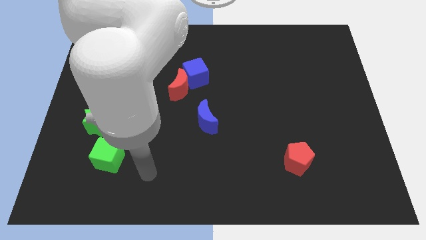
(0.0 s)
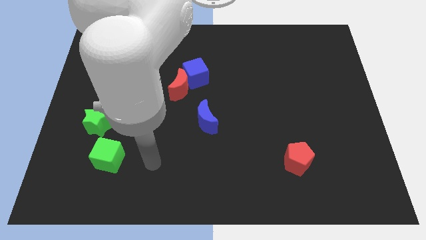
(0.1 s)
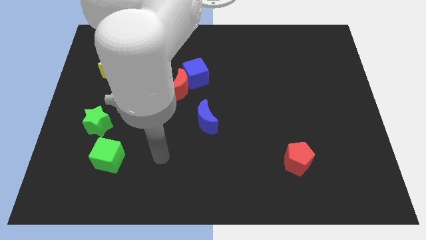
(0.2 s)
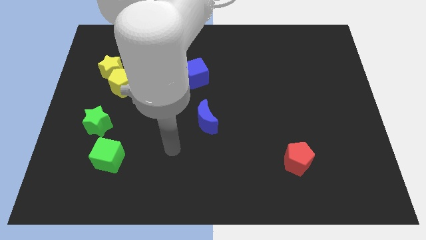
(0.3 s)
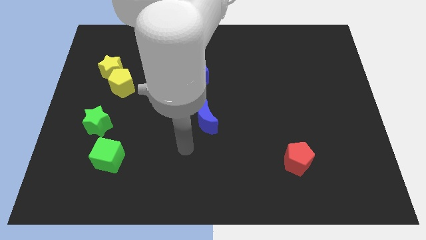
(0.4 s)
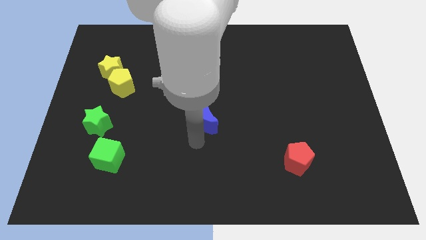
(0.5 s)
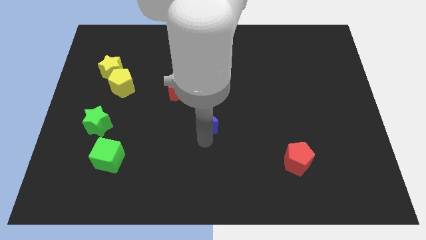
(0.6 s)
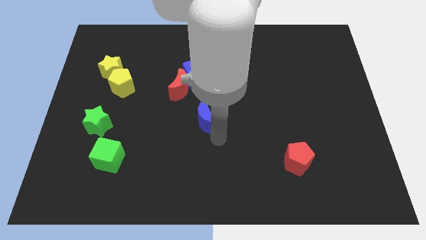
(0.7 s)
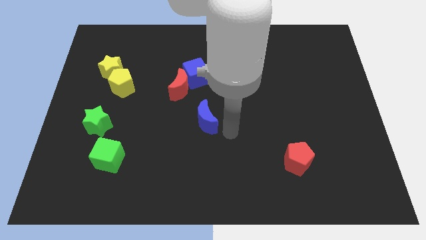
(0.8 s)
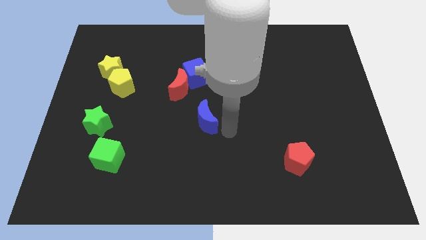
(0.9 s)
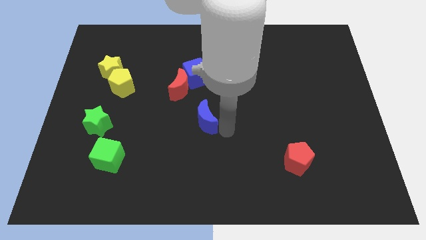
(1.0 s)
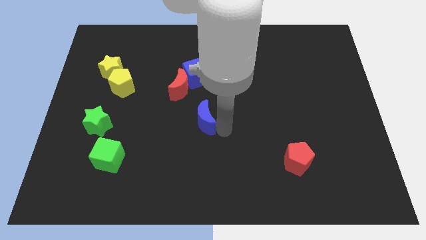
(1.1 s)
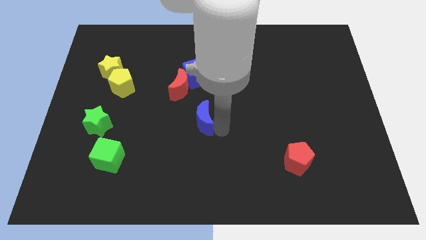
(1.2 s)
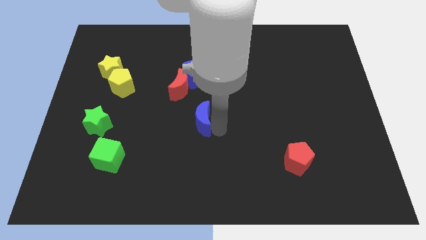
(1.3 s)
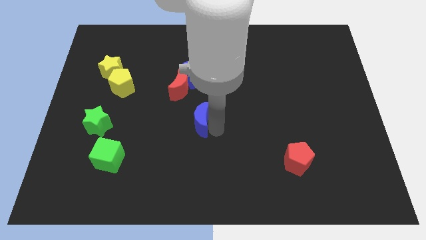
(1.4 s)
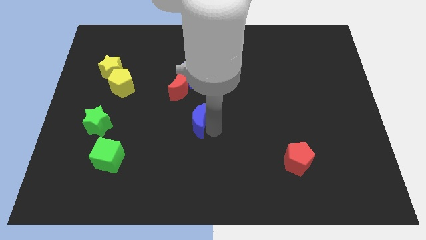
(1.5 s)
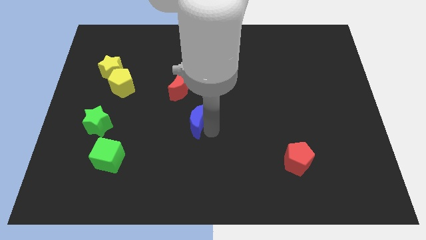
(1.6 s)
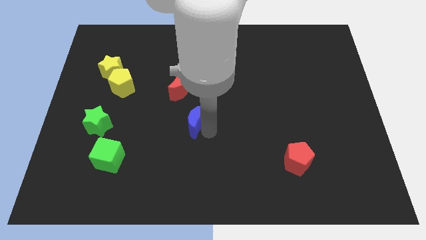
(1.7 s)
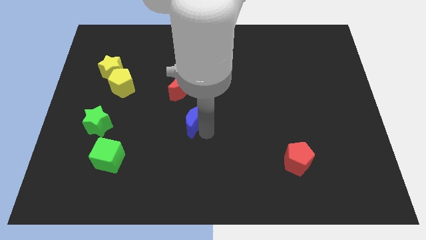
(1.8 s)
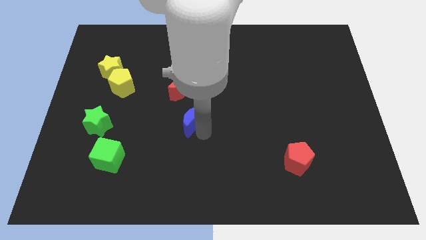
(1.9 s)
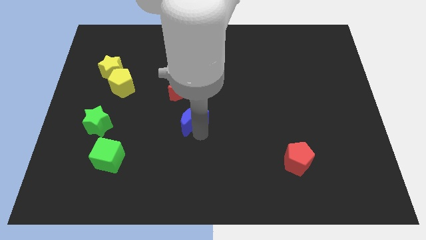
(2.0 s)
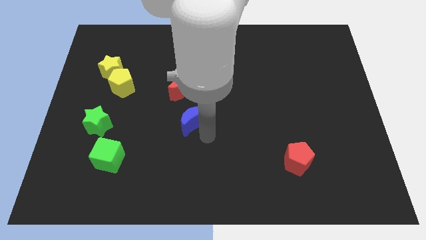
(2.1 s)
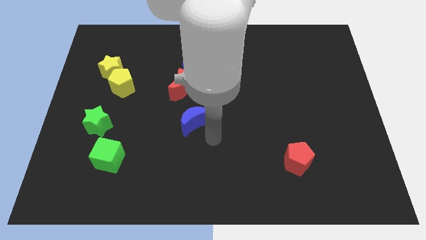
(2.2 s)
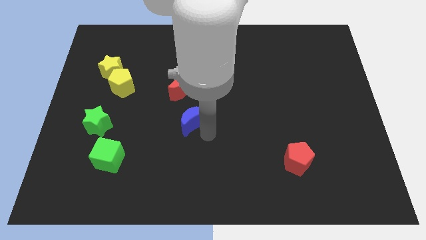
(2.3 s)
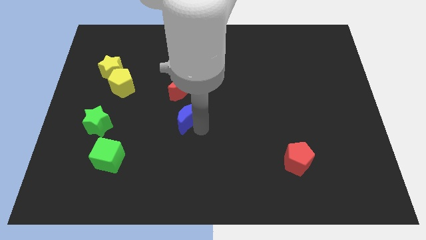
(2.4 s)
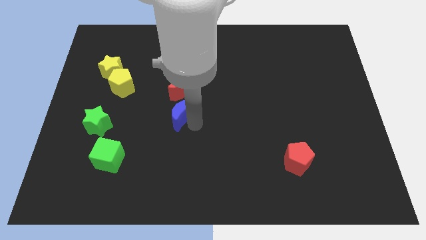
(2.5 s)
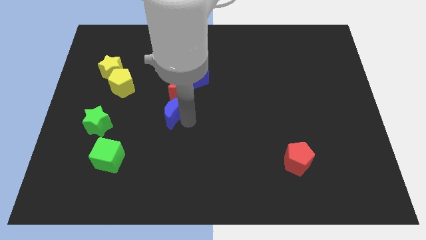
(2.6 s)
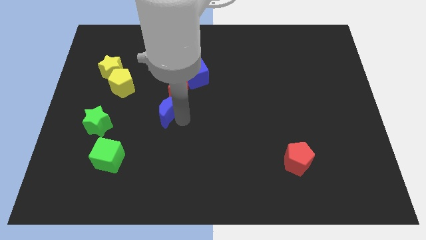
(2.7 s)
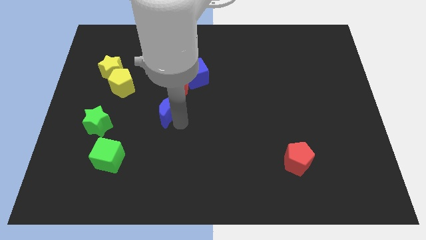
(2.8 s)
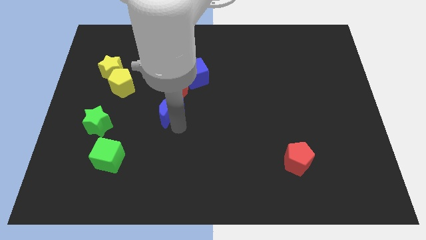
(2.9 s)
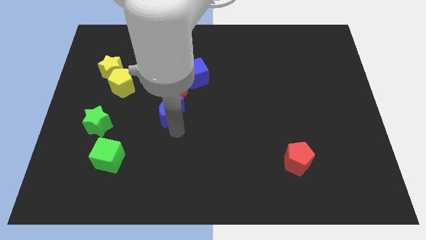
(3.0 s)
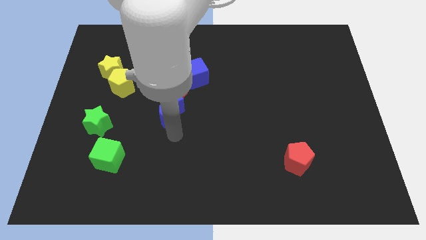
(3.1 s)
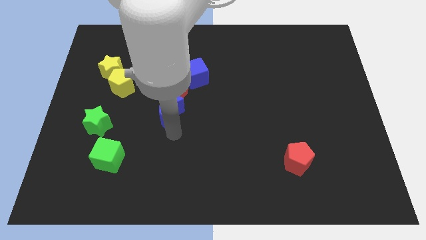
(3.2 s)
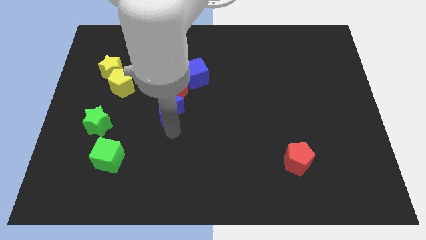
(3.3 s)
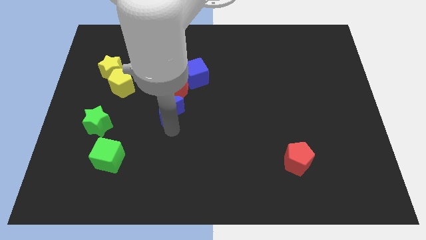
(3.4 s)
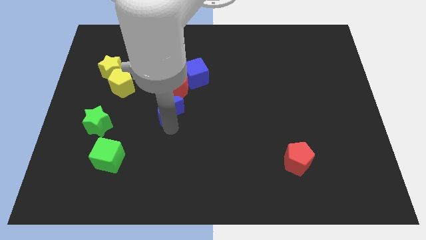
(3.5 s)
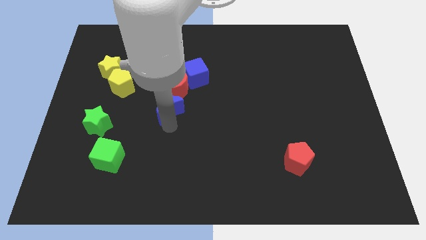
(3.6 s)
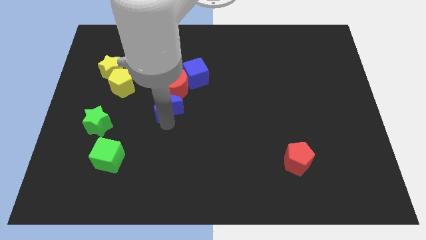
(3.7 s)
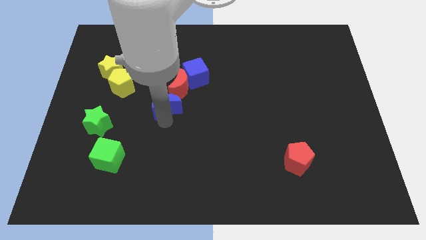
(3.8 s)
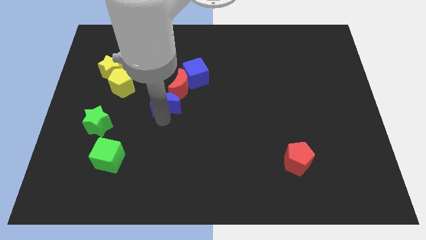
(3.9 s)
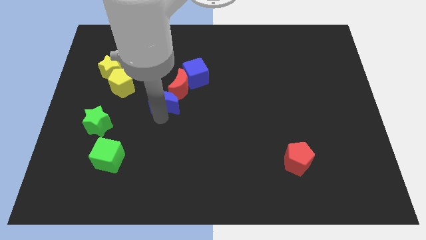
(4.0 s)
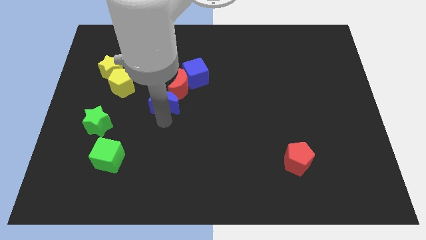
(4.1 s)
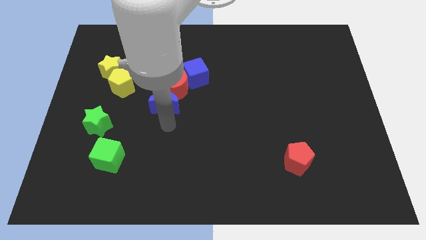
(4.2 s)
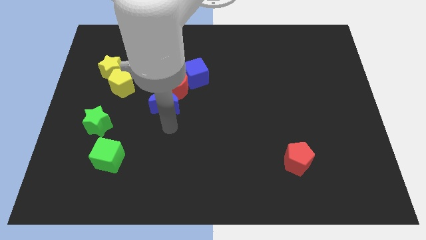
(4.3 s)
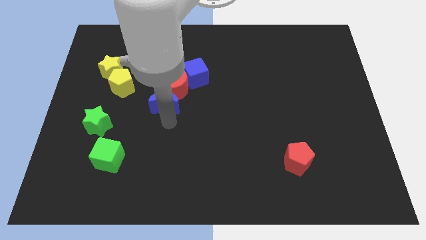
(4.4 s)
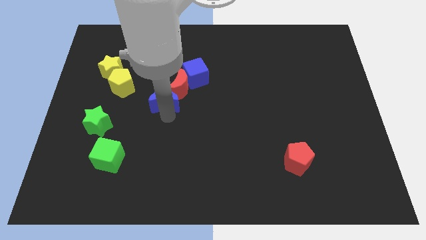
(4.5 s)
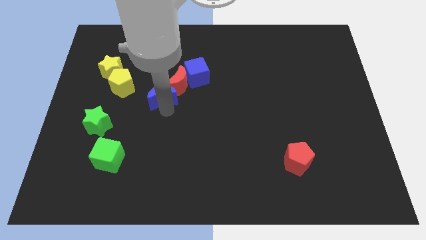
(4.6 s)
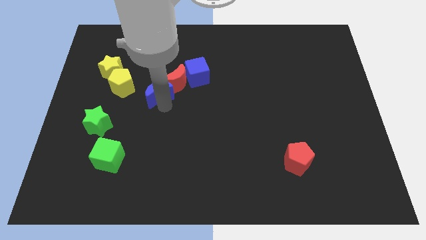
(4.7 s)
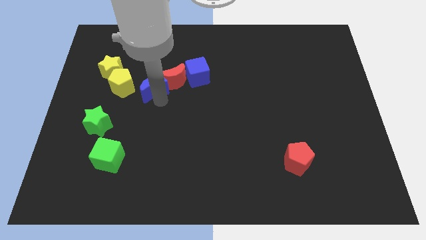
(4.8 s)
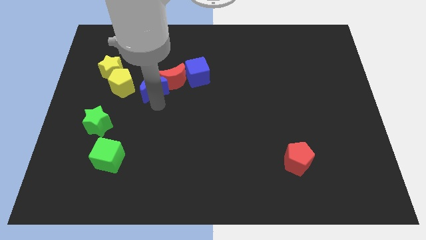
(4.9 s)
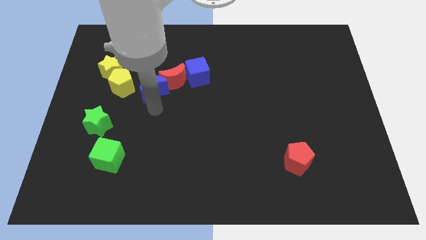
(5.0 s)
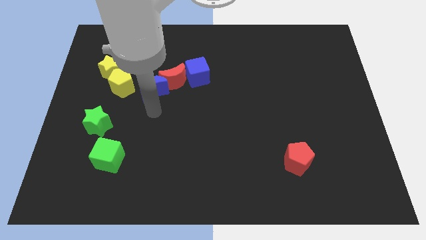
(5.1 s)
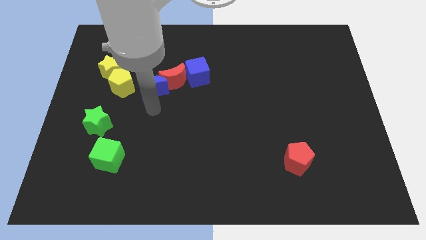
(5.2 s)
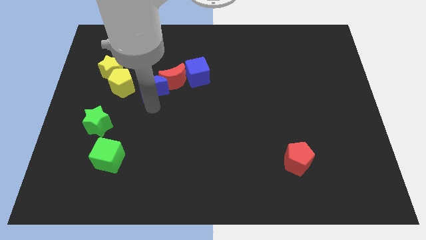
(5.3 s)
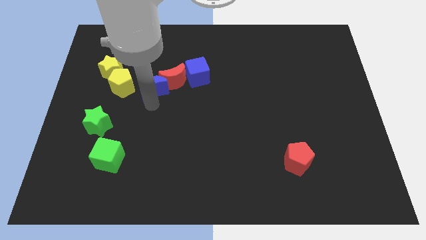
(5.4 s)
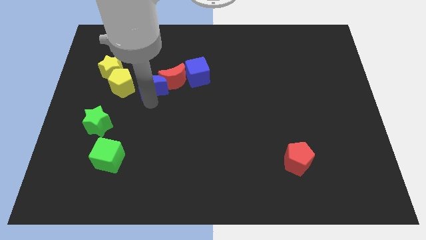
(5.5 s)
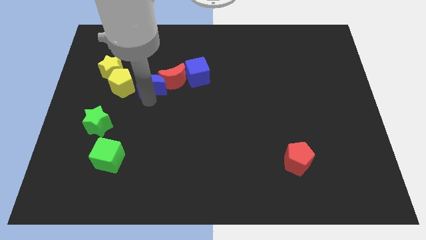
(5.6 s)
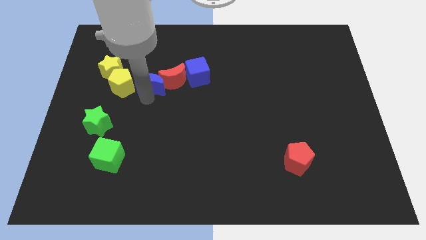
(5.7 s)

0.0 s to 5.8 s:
push the blue moon to the right of the yellow star

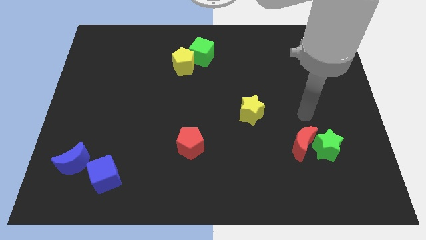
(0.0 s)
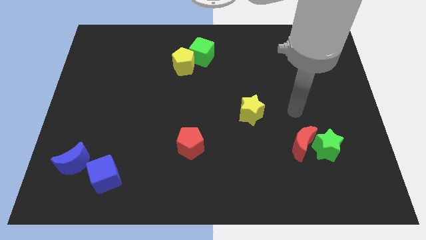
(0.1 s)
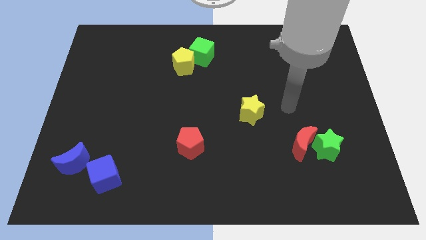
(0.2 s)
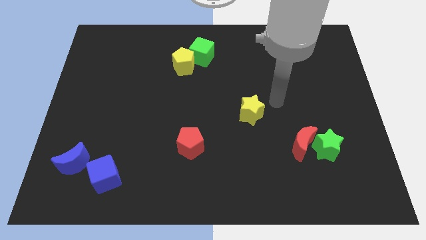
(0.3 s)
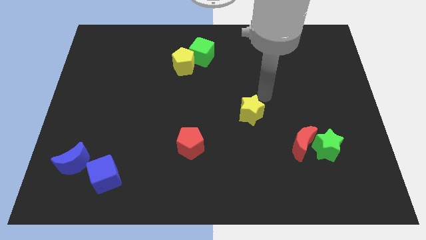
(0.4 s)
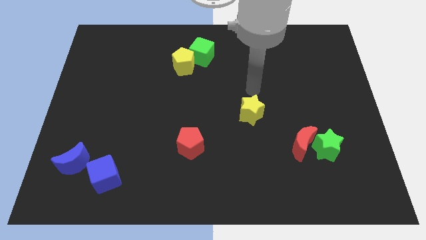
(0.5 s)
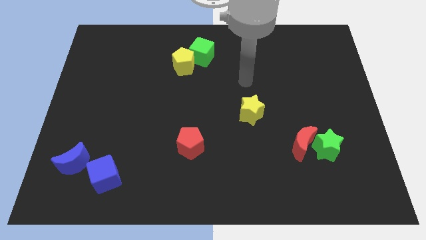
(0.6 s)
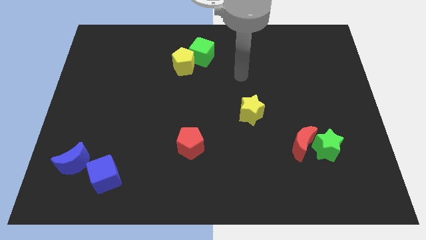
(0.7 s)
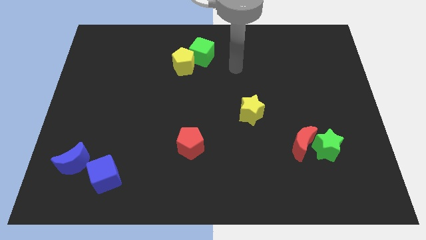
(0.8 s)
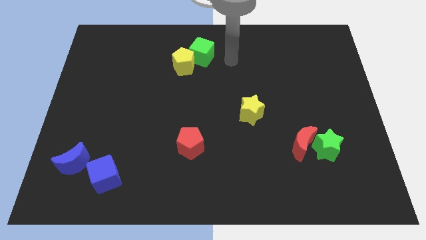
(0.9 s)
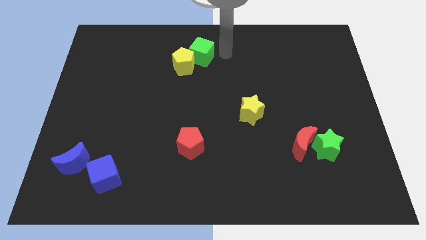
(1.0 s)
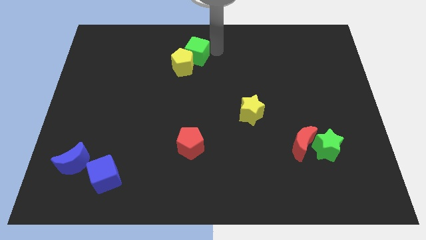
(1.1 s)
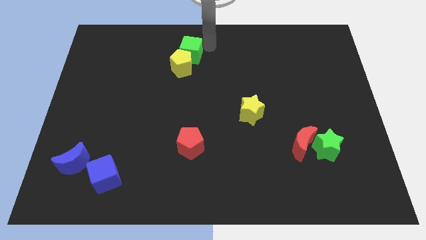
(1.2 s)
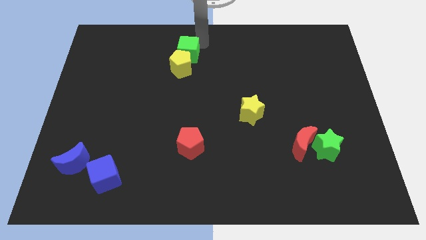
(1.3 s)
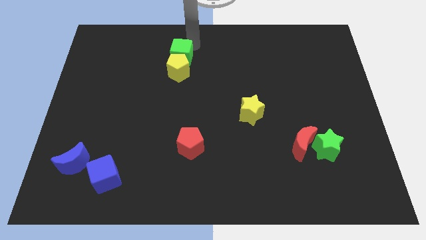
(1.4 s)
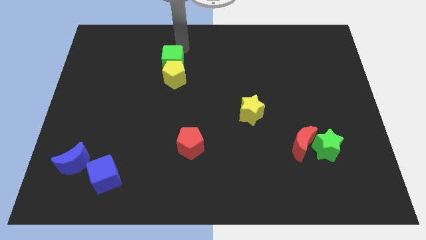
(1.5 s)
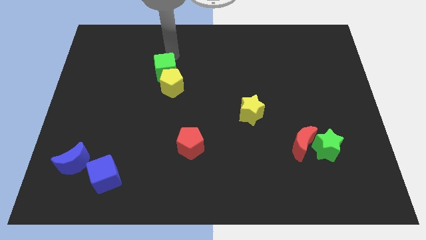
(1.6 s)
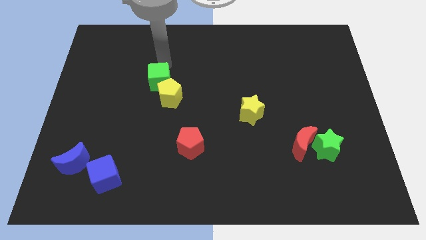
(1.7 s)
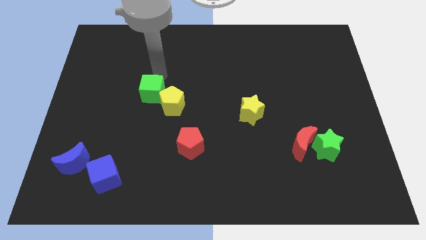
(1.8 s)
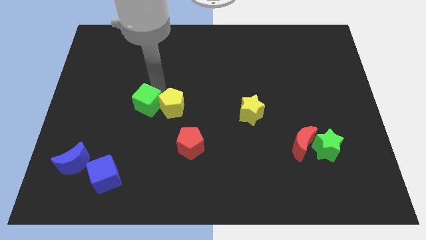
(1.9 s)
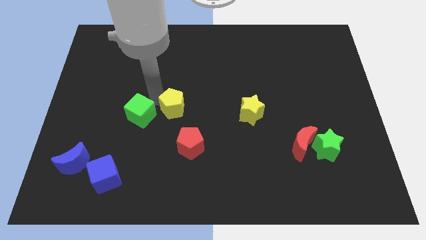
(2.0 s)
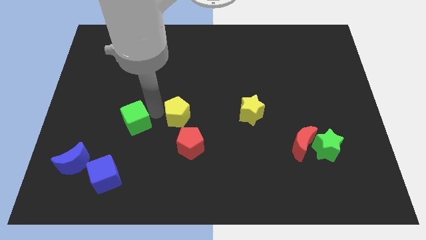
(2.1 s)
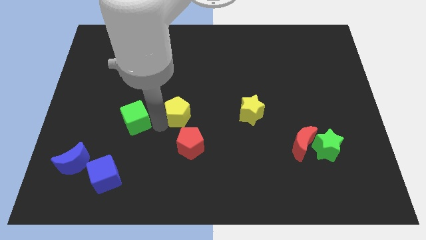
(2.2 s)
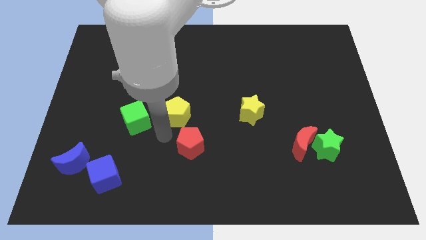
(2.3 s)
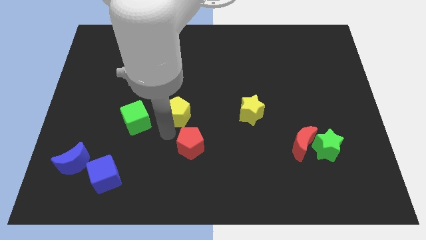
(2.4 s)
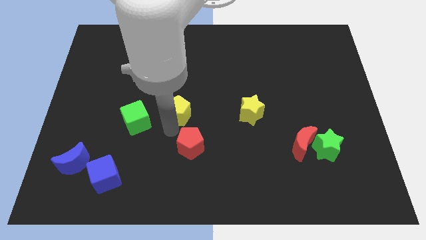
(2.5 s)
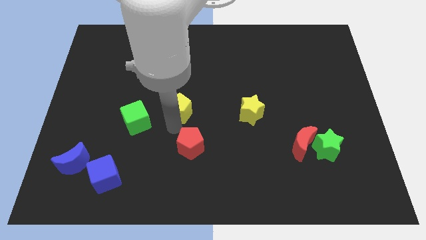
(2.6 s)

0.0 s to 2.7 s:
push the yellow pentagon left of the yellow star
